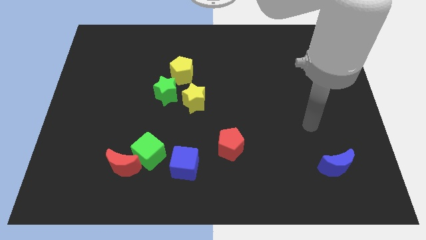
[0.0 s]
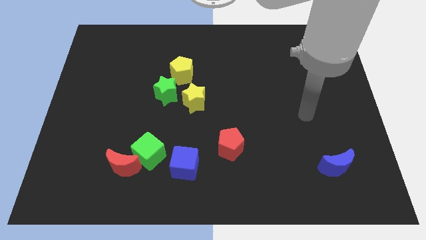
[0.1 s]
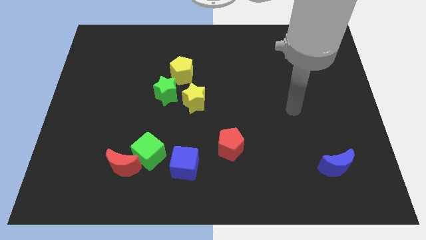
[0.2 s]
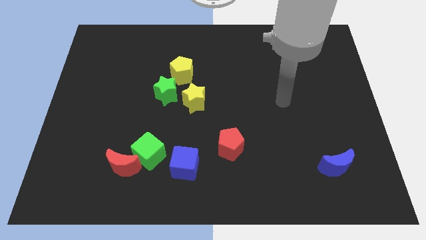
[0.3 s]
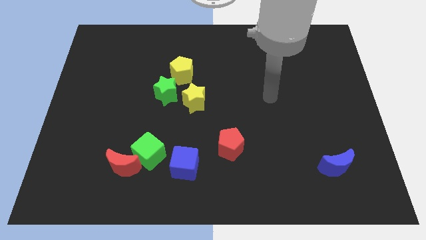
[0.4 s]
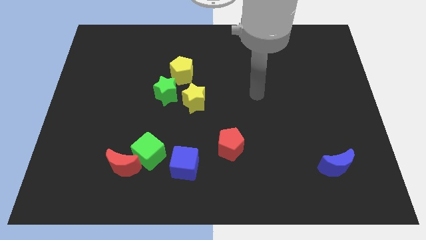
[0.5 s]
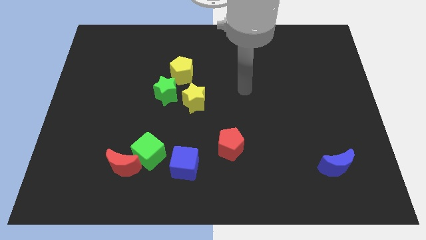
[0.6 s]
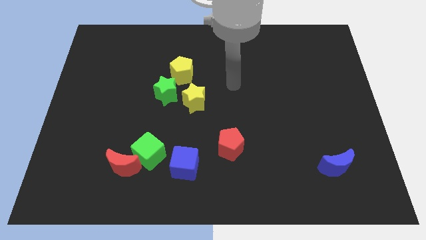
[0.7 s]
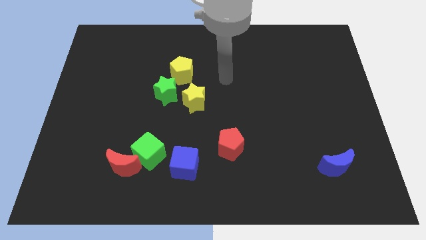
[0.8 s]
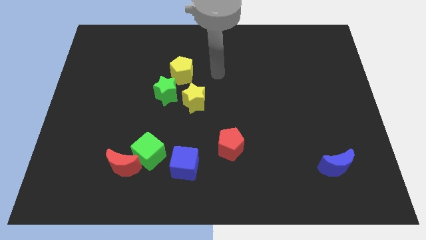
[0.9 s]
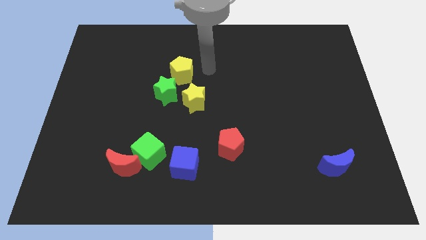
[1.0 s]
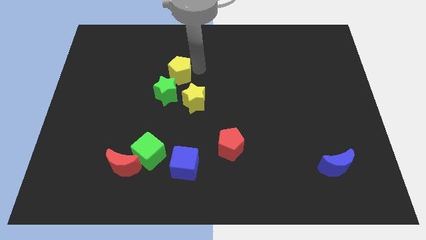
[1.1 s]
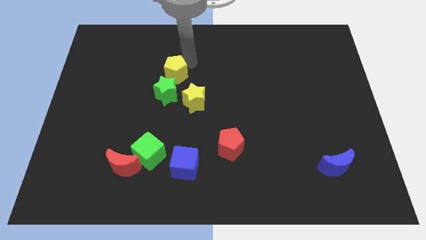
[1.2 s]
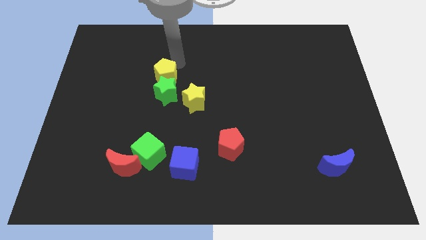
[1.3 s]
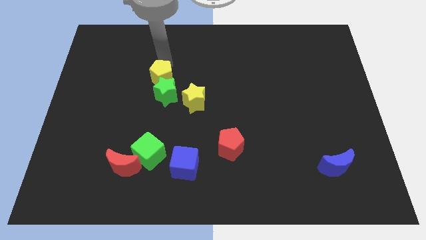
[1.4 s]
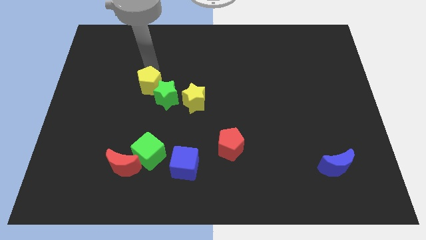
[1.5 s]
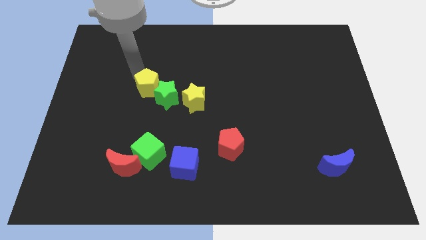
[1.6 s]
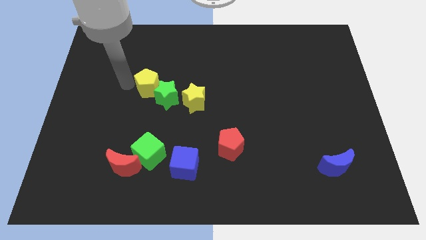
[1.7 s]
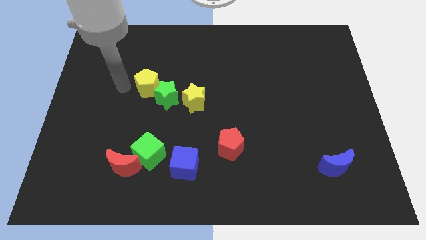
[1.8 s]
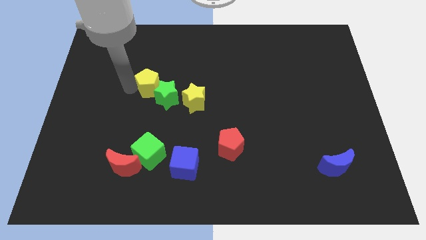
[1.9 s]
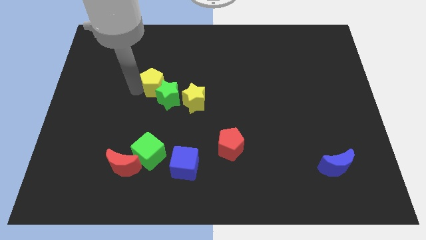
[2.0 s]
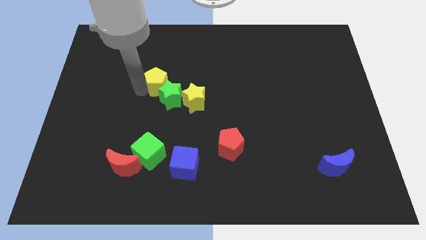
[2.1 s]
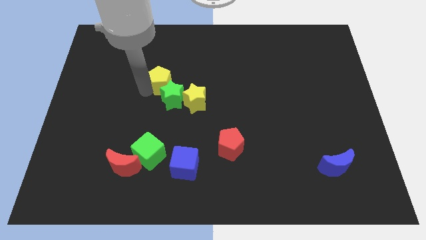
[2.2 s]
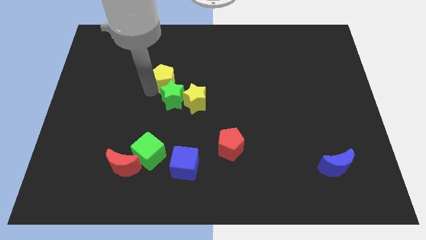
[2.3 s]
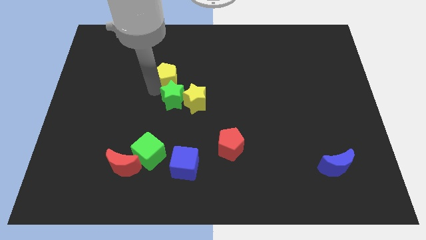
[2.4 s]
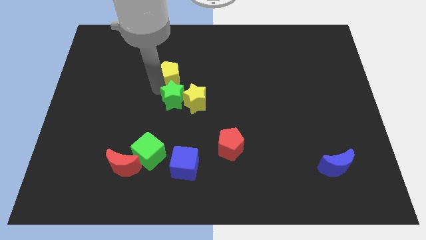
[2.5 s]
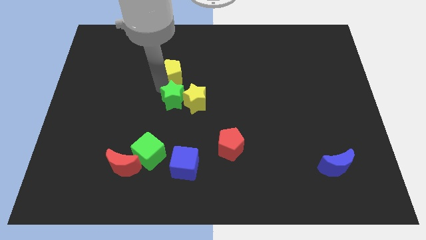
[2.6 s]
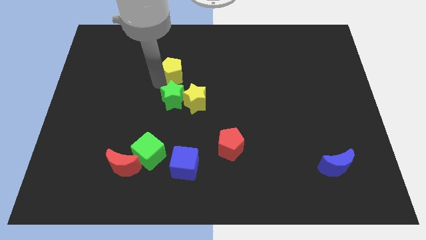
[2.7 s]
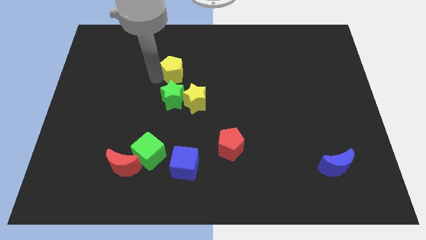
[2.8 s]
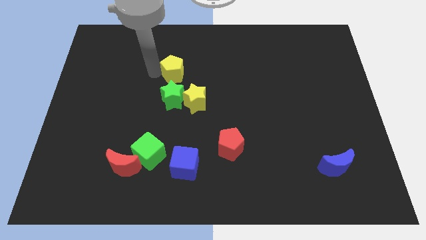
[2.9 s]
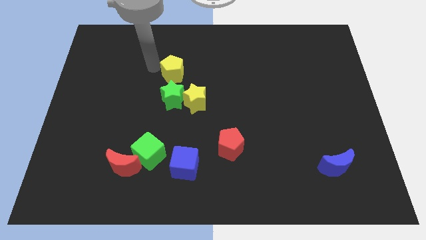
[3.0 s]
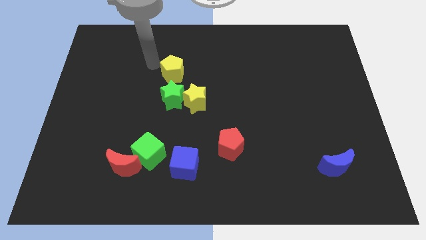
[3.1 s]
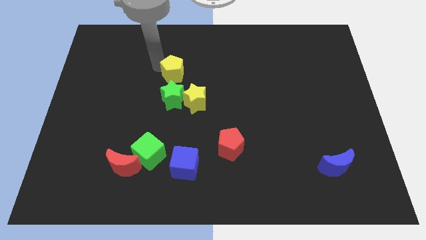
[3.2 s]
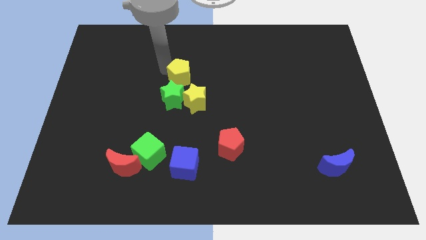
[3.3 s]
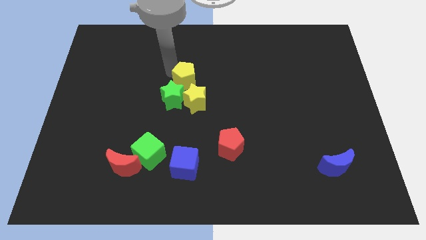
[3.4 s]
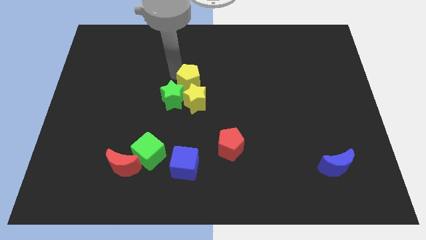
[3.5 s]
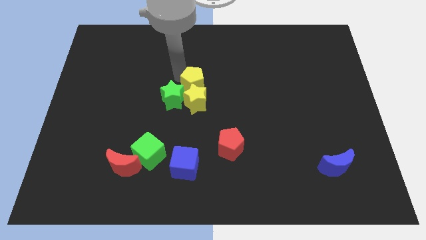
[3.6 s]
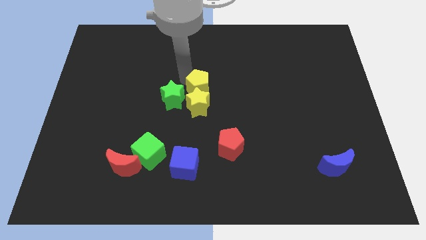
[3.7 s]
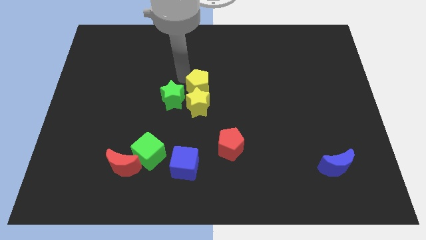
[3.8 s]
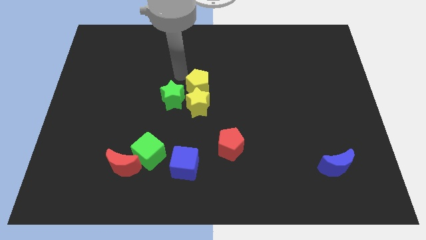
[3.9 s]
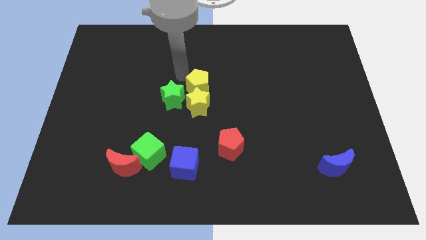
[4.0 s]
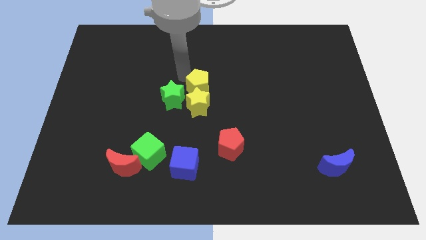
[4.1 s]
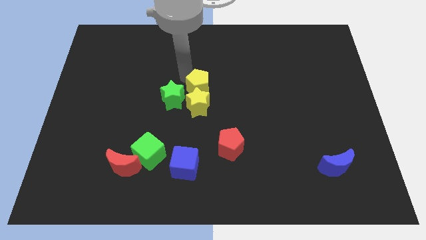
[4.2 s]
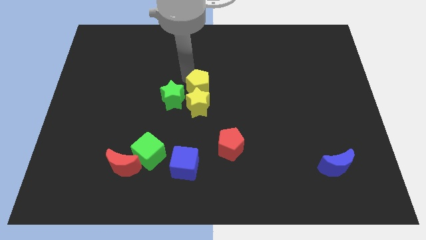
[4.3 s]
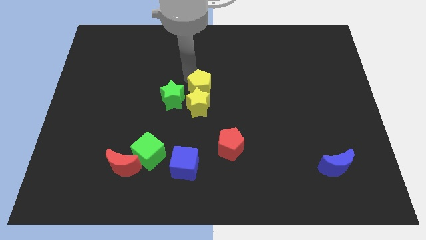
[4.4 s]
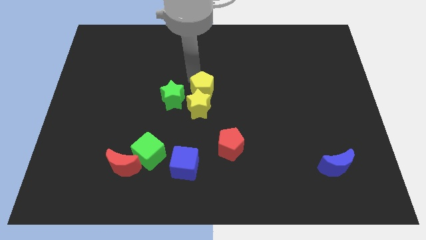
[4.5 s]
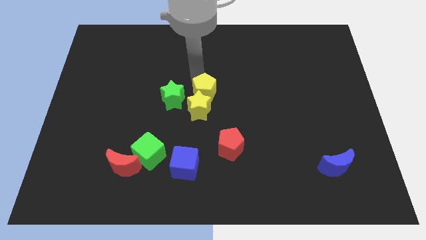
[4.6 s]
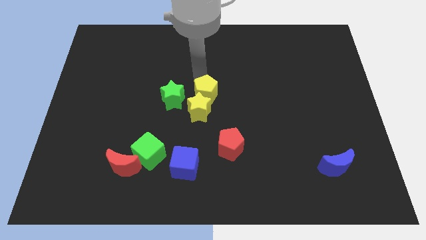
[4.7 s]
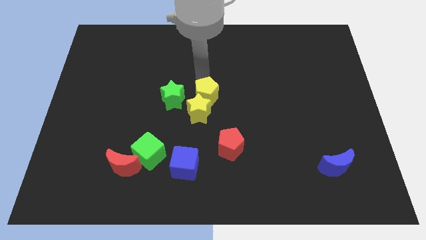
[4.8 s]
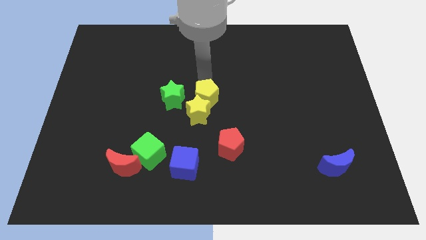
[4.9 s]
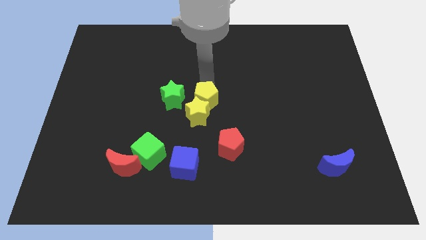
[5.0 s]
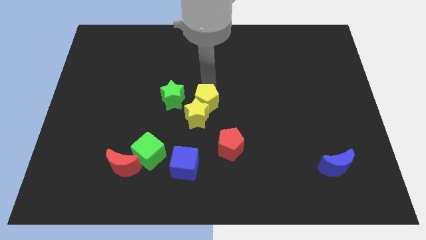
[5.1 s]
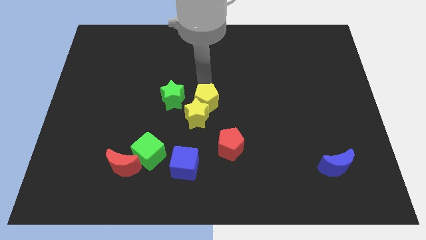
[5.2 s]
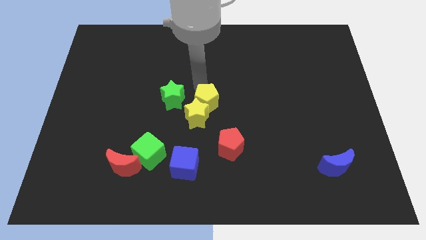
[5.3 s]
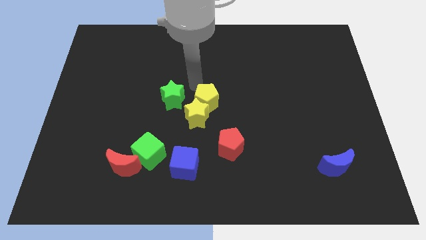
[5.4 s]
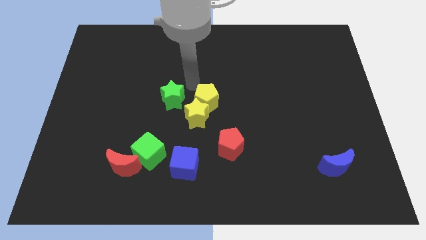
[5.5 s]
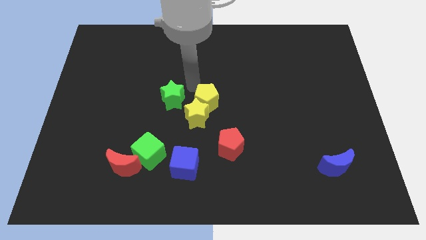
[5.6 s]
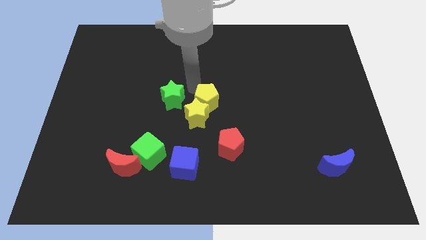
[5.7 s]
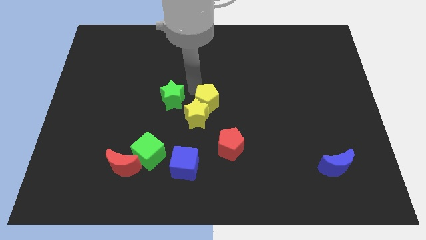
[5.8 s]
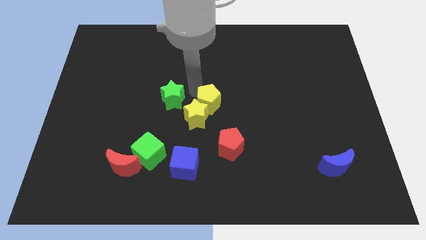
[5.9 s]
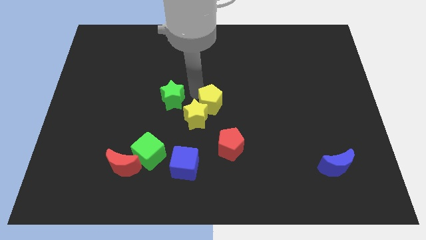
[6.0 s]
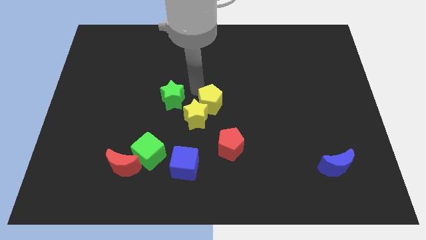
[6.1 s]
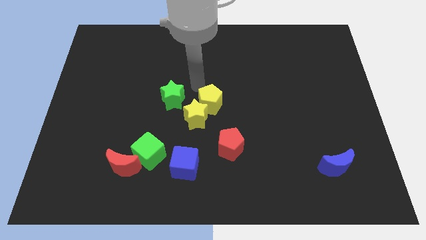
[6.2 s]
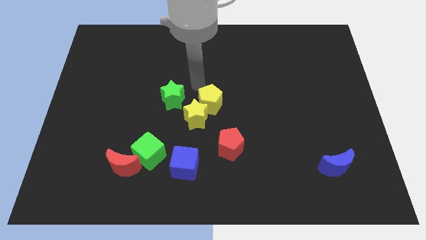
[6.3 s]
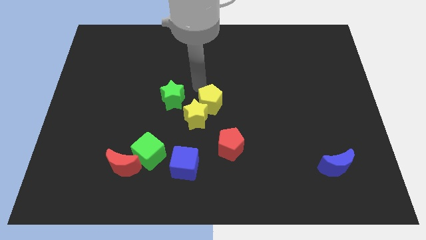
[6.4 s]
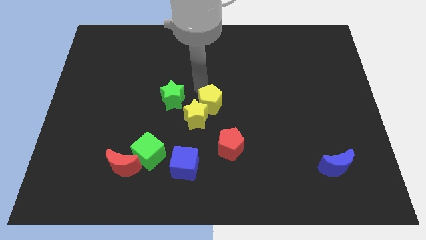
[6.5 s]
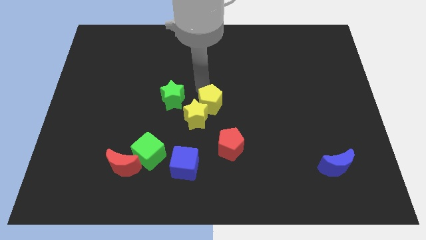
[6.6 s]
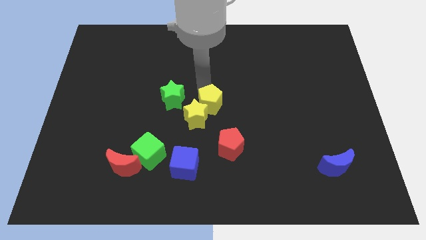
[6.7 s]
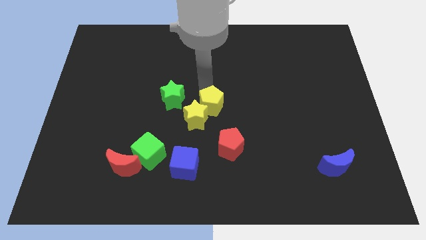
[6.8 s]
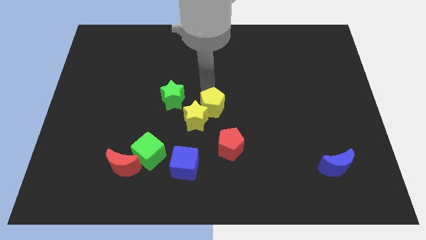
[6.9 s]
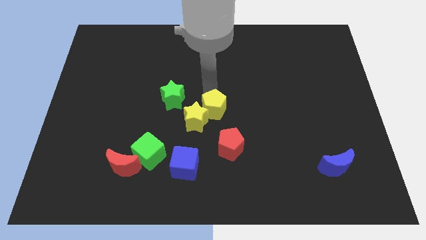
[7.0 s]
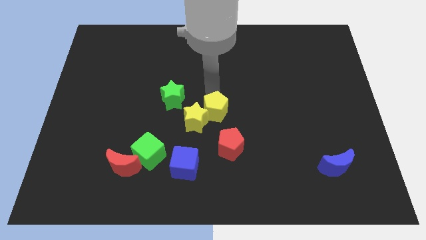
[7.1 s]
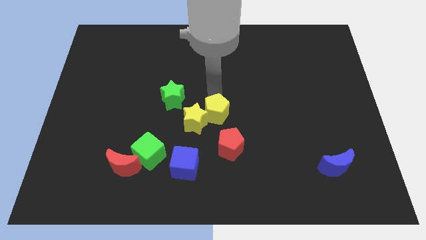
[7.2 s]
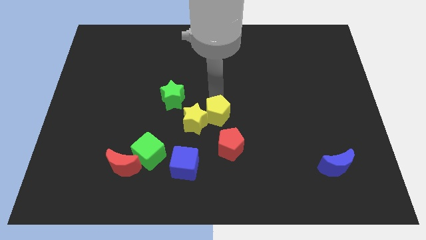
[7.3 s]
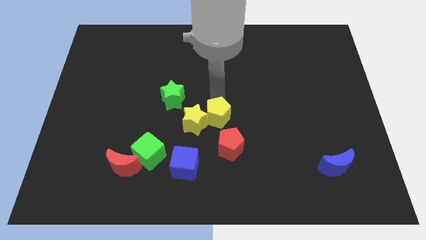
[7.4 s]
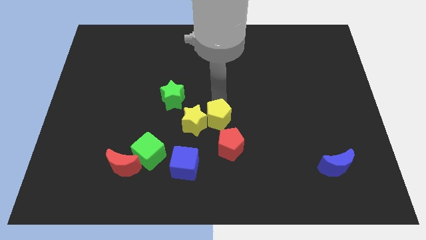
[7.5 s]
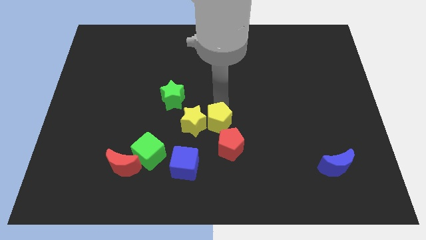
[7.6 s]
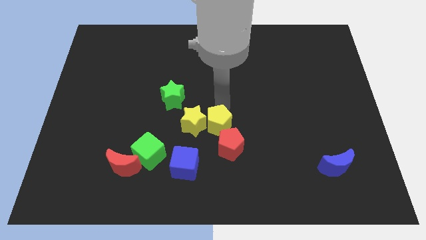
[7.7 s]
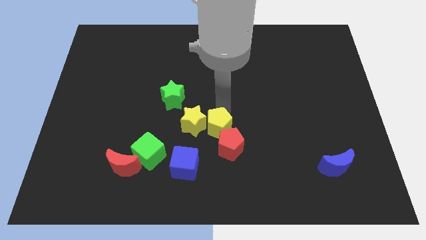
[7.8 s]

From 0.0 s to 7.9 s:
push the yellow pentagon close to the red pentagon
